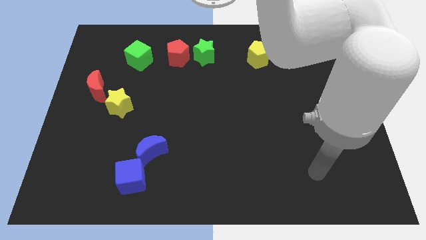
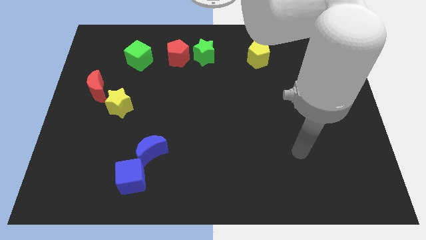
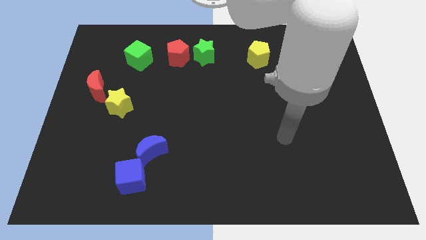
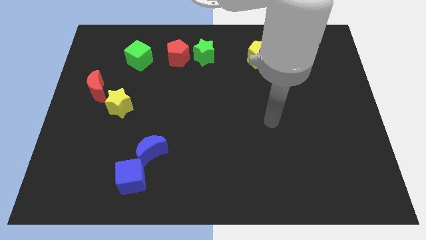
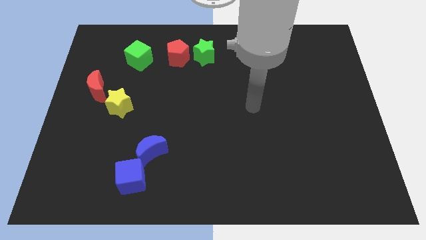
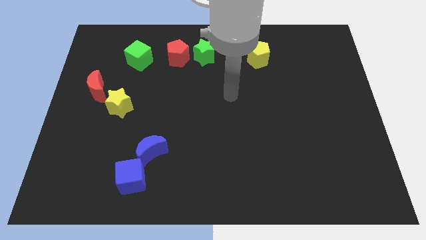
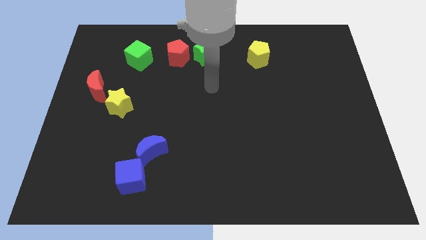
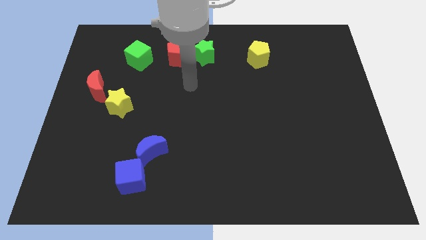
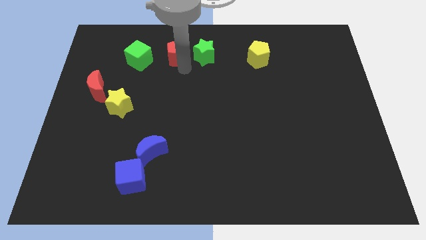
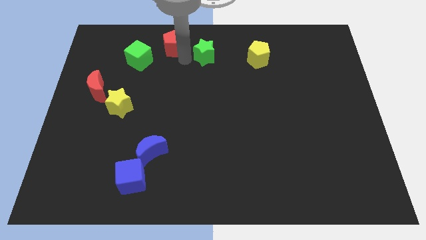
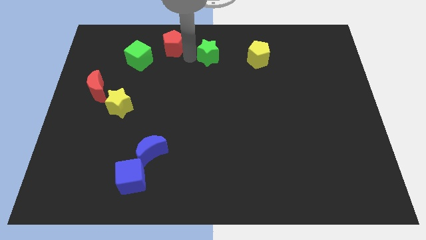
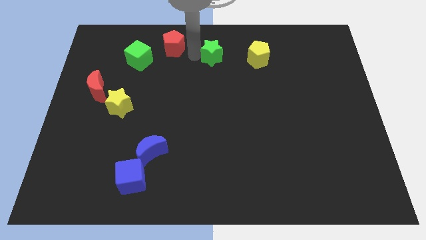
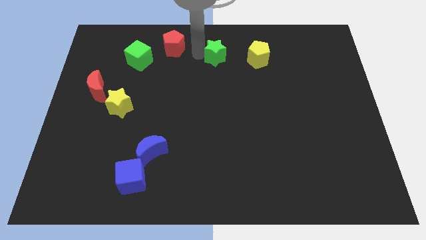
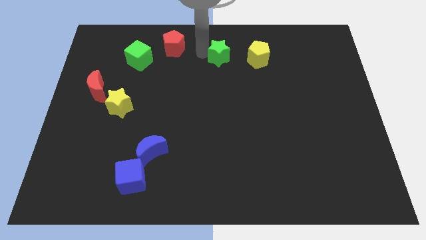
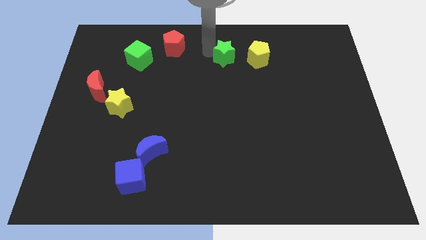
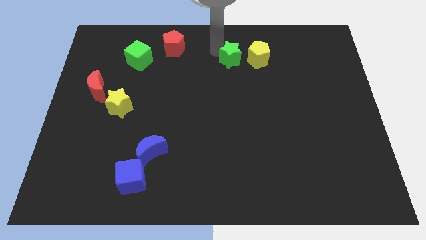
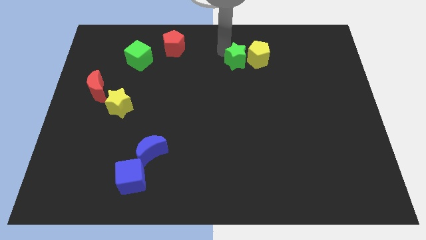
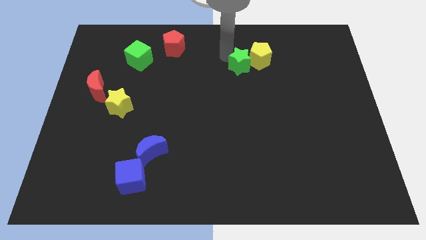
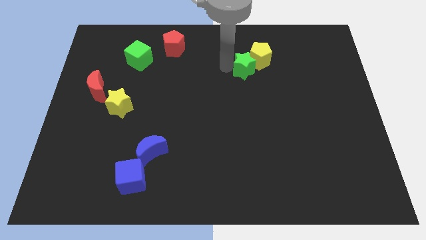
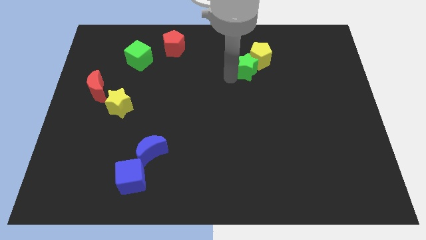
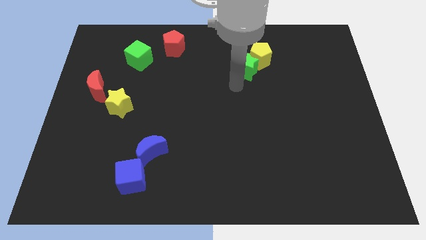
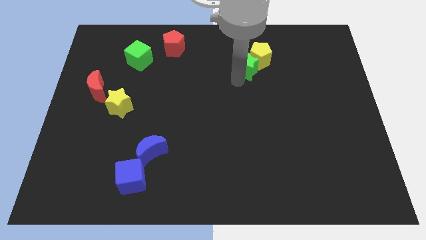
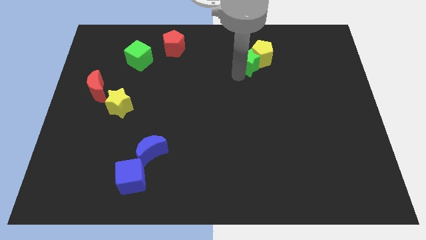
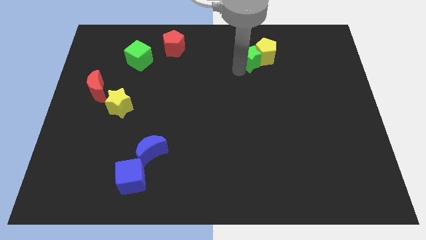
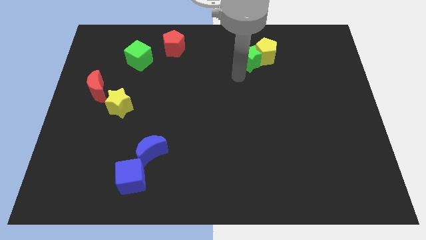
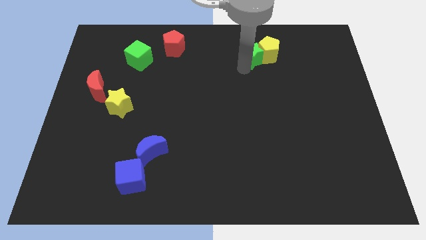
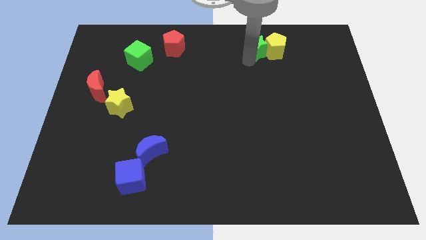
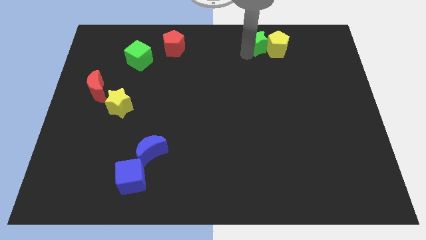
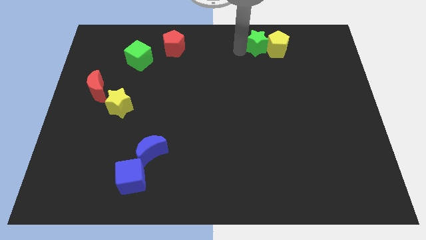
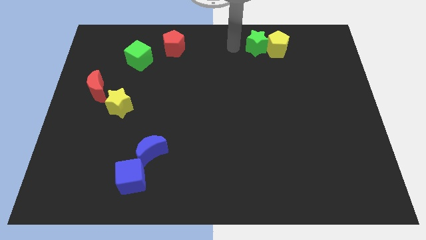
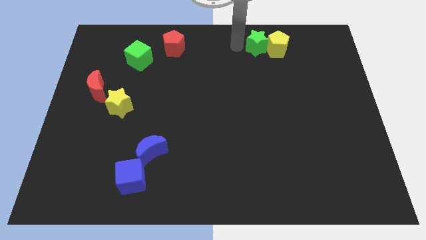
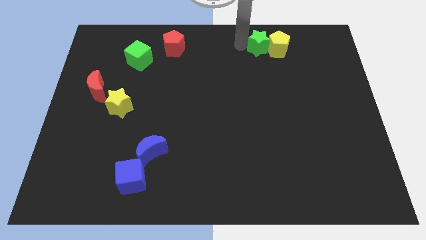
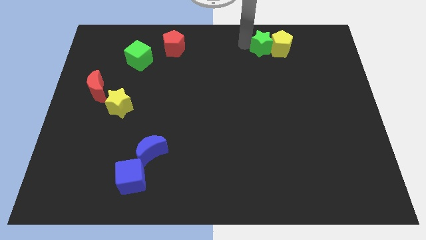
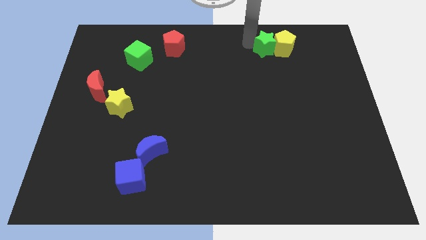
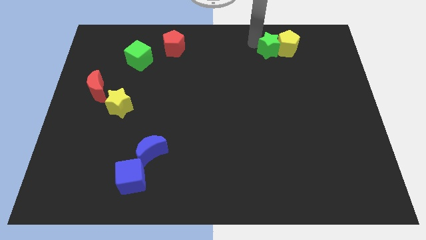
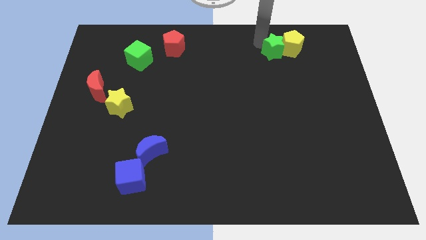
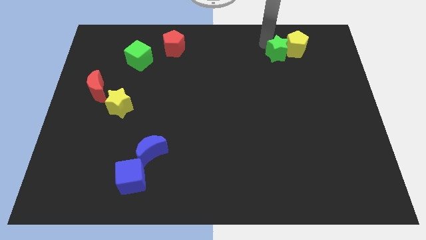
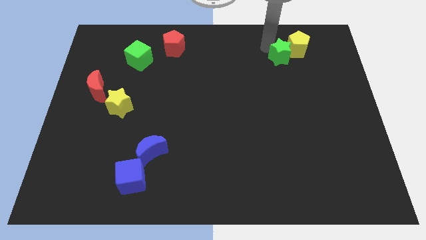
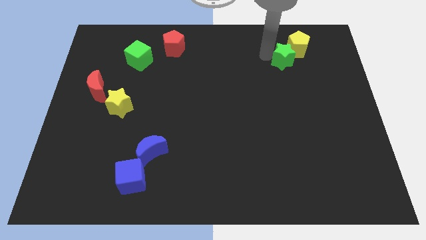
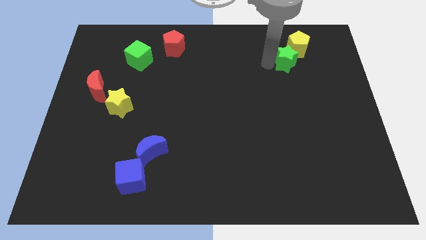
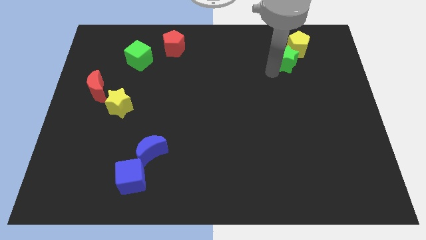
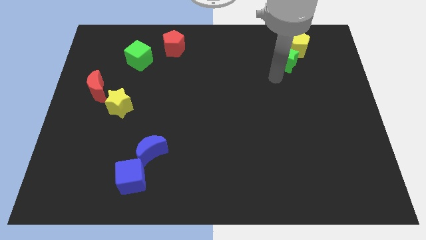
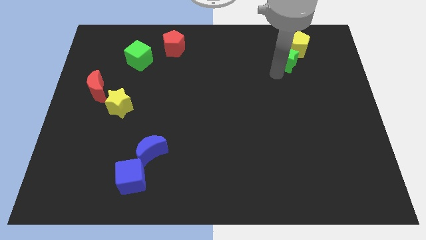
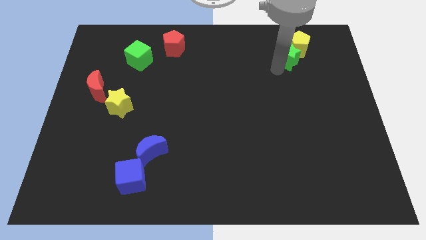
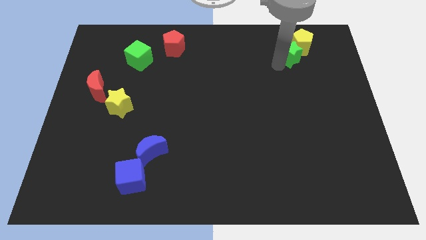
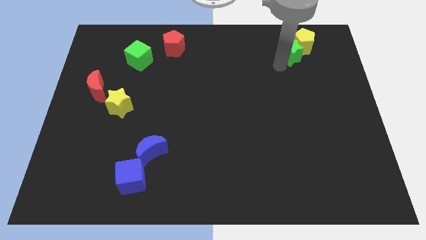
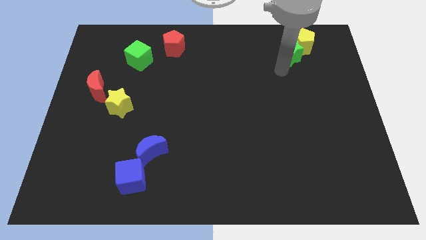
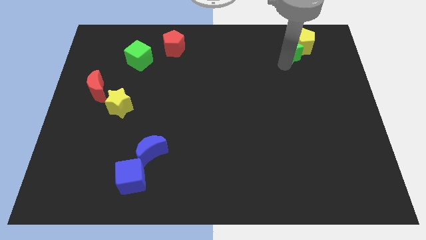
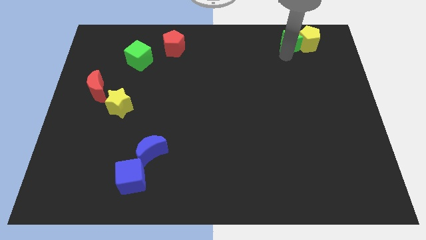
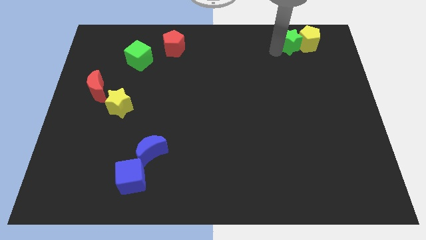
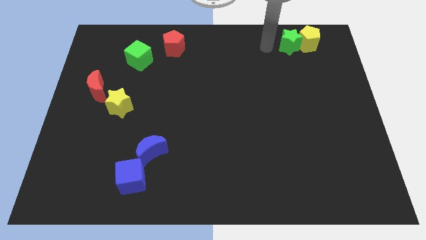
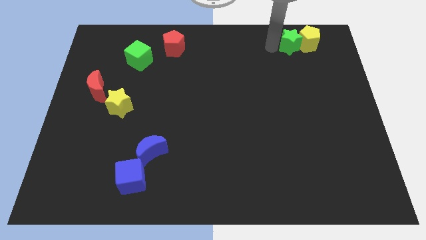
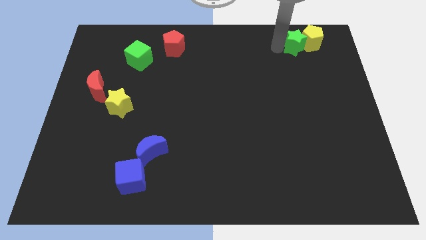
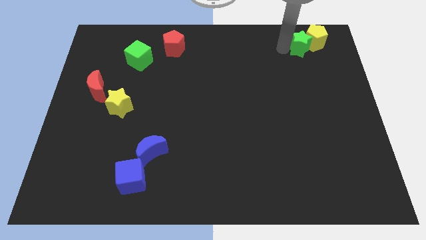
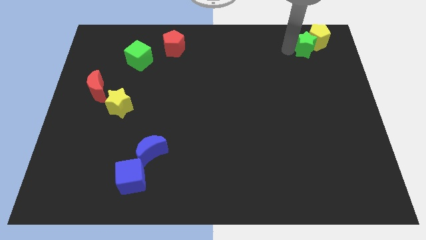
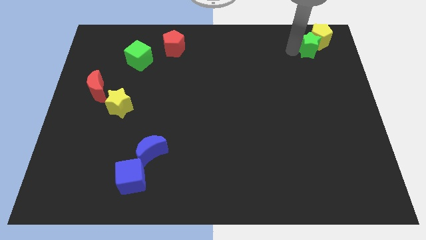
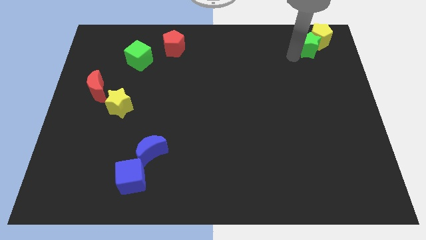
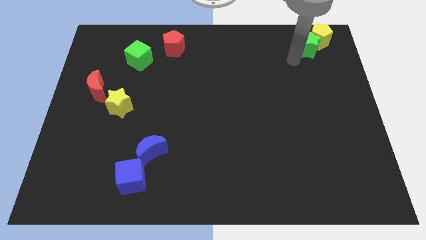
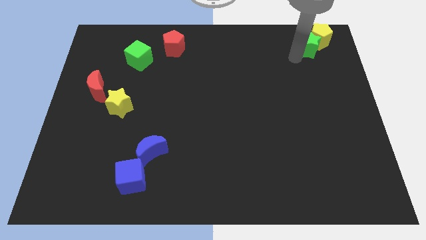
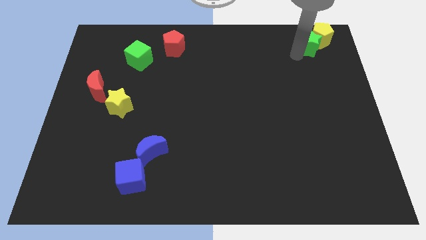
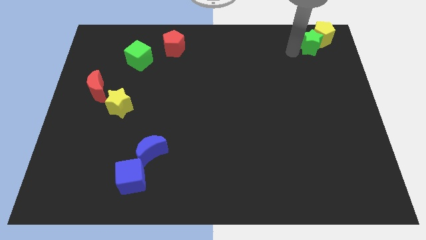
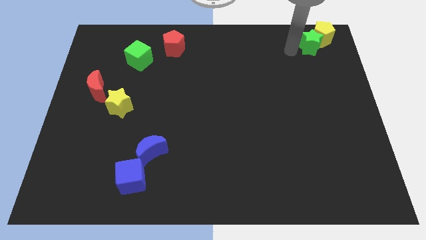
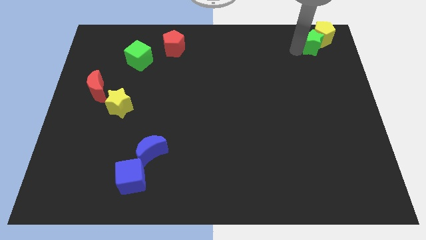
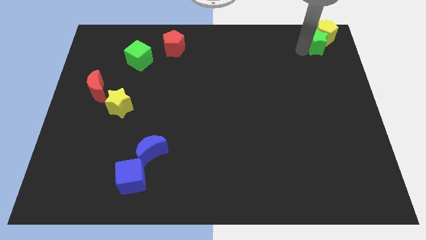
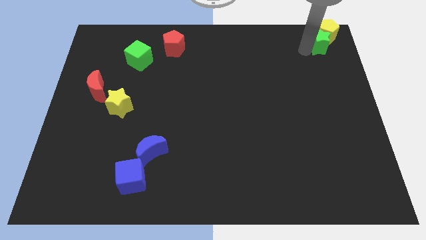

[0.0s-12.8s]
push the green star to the top right corner
